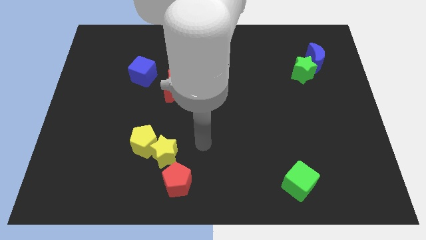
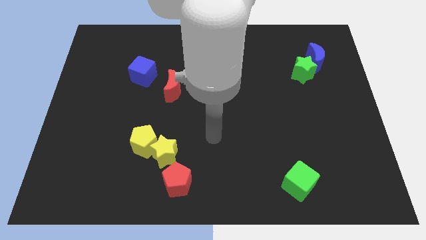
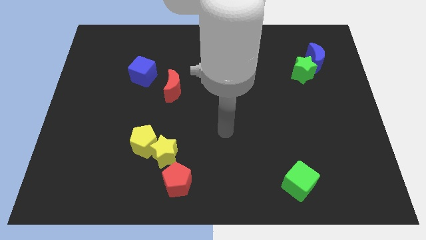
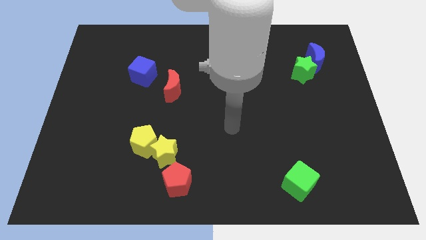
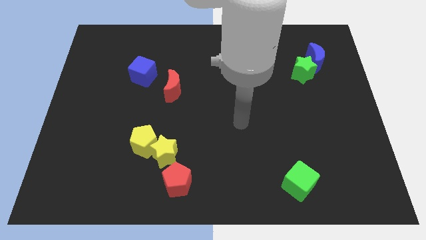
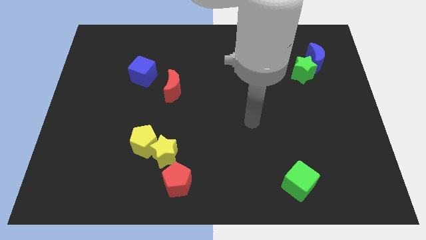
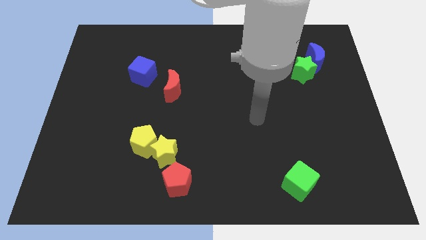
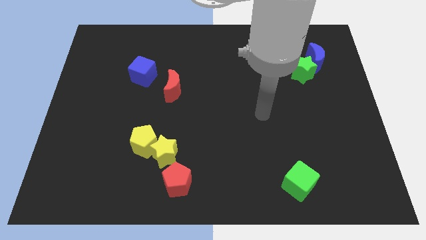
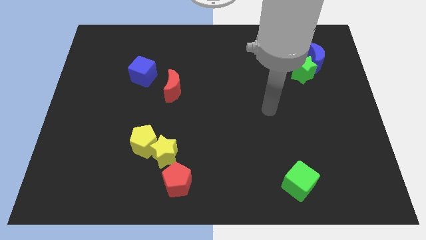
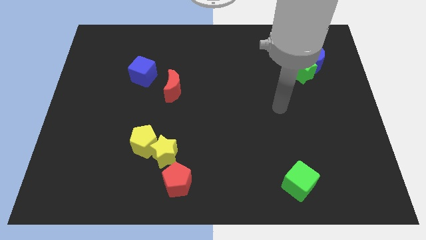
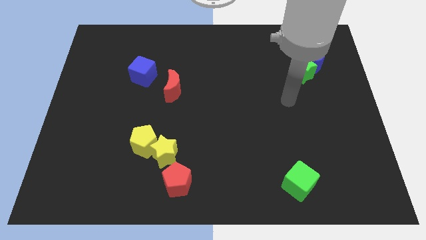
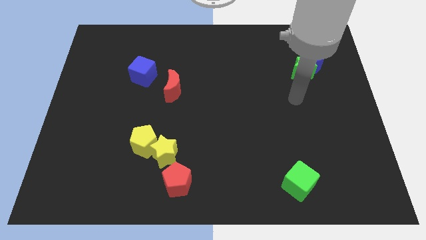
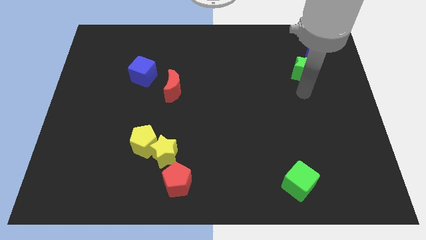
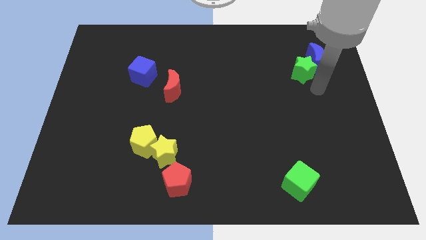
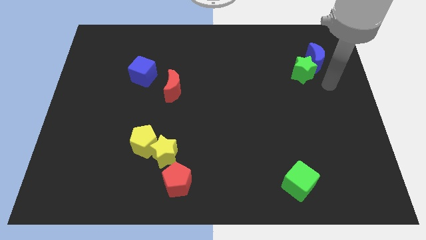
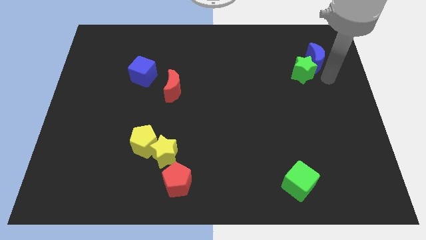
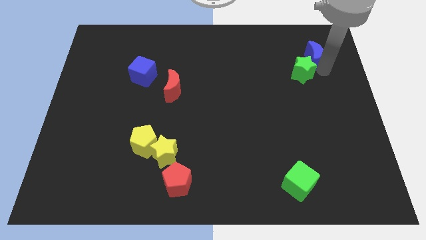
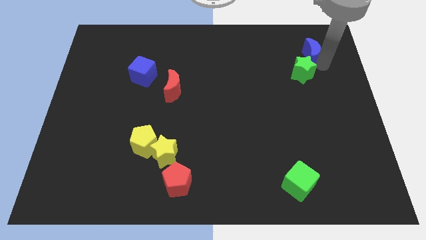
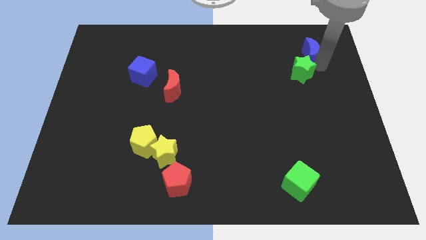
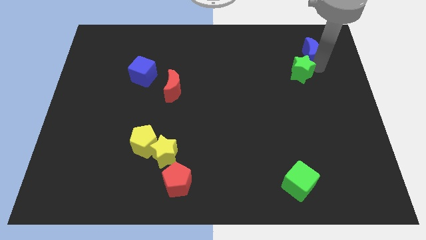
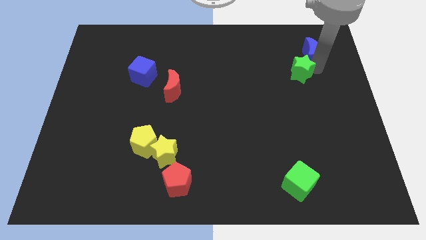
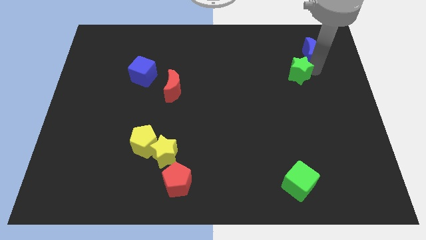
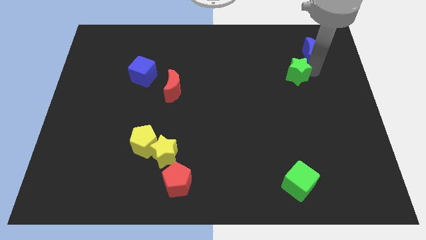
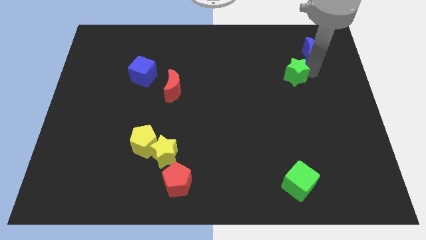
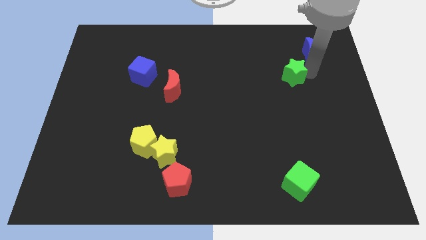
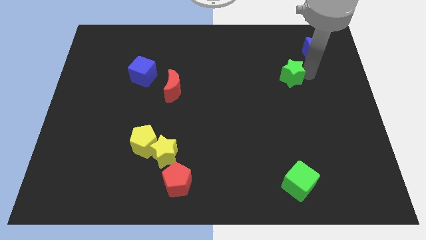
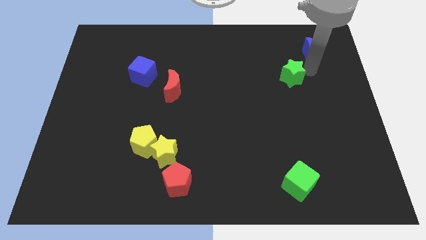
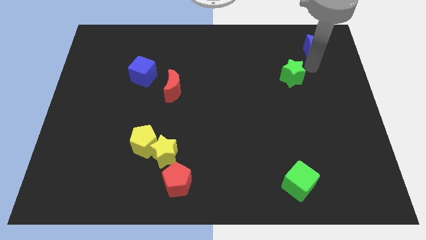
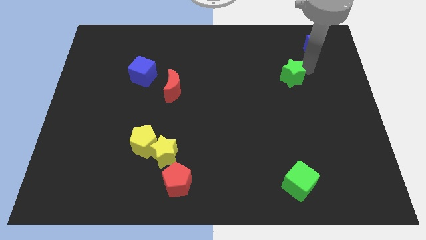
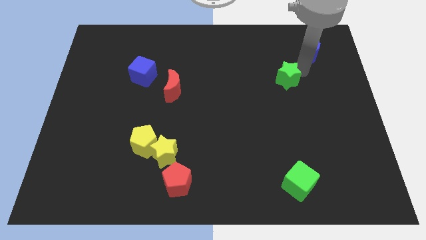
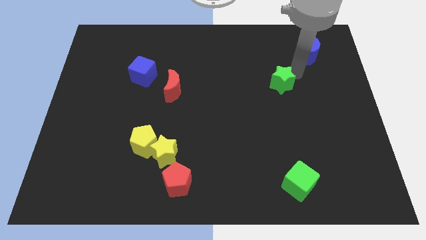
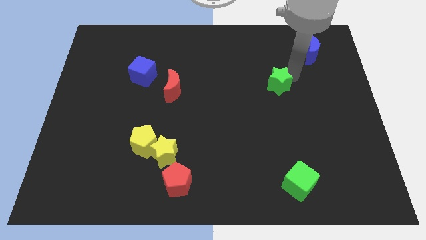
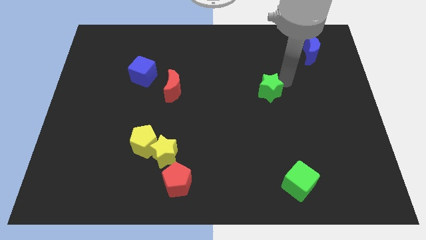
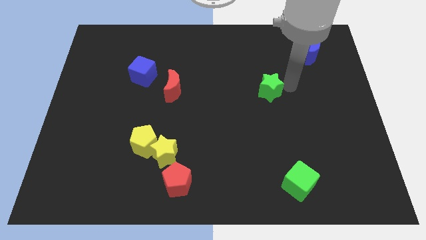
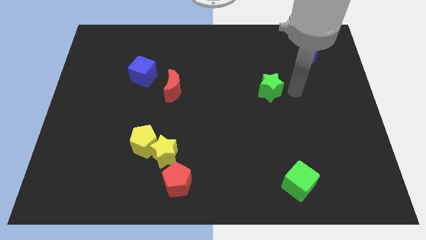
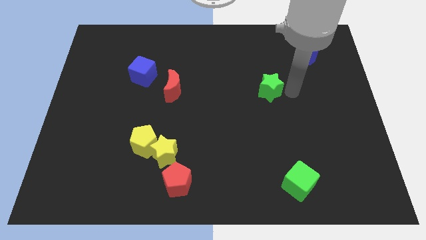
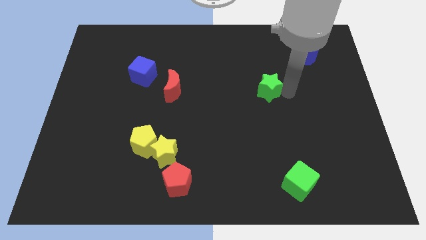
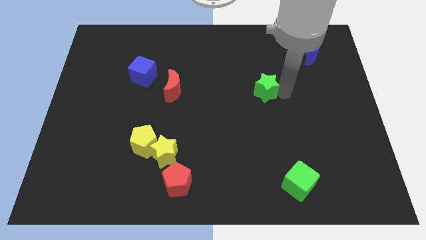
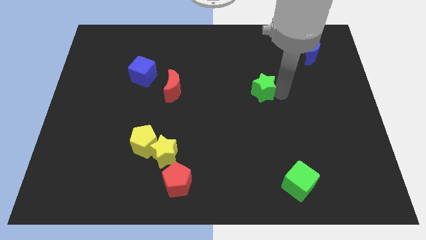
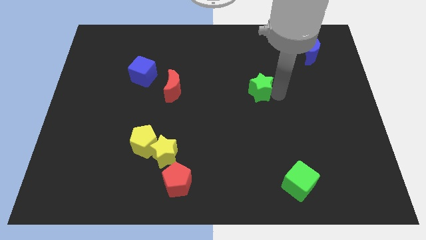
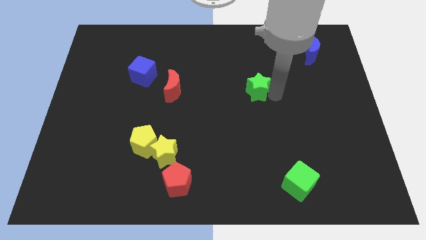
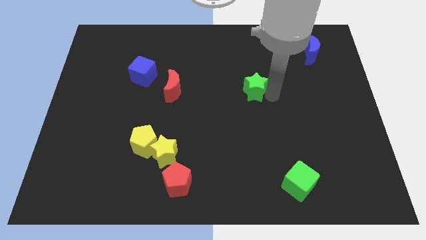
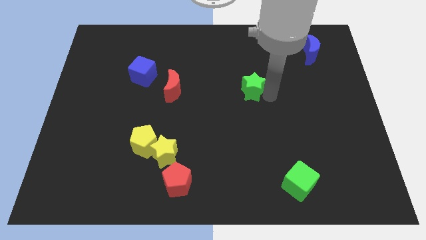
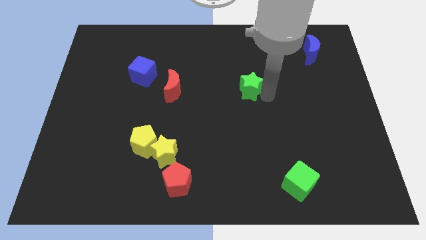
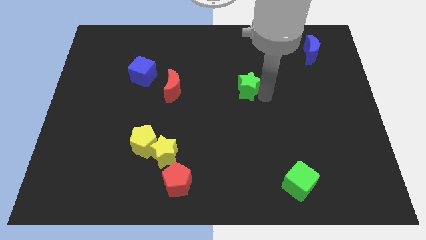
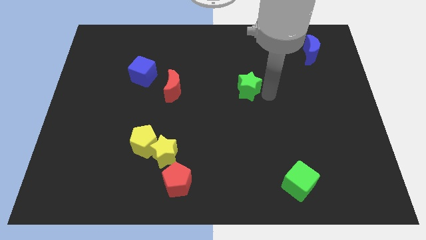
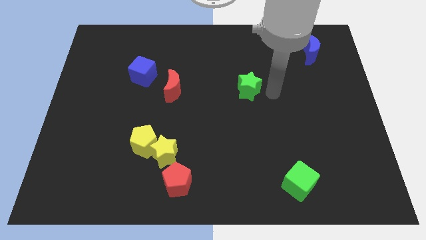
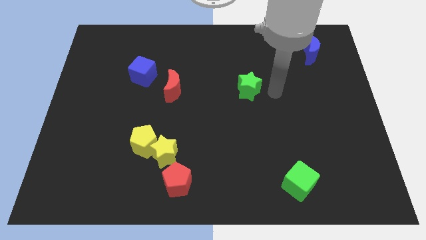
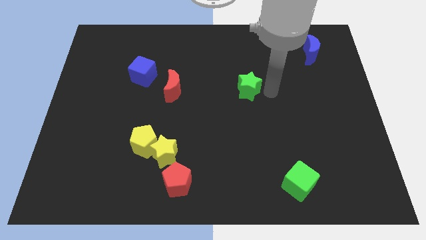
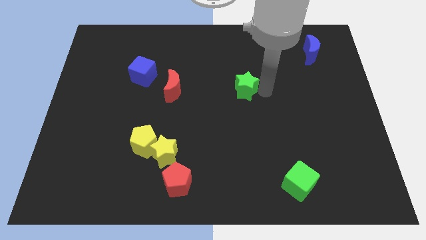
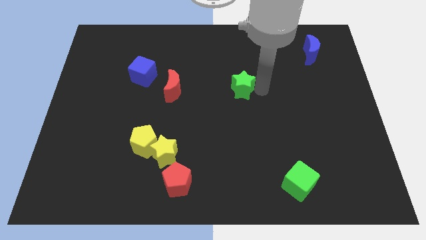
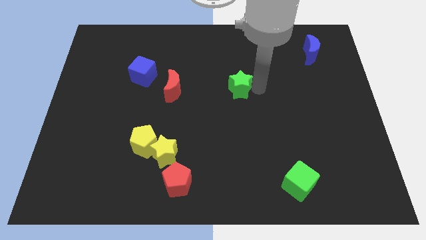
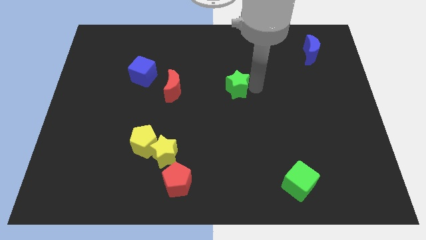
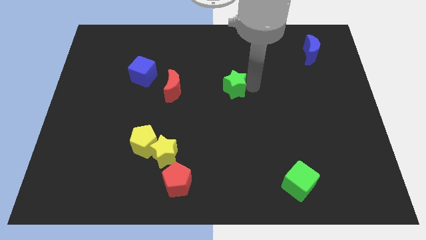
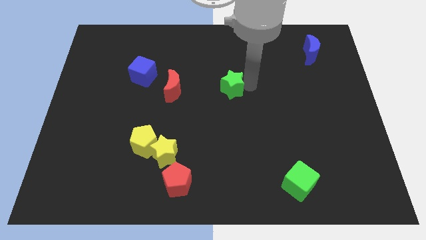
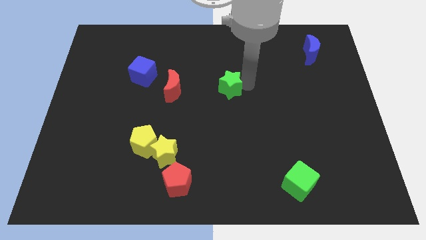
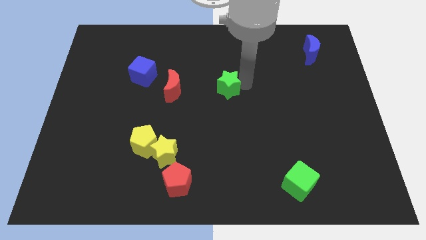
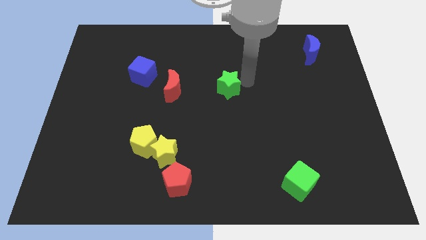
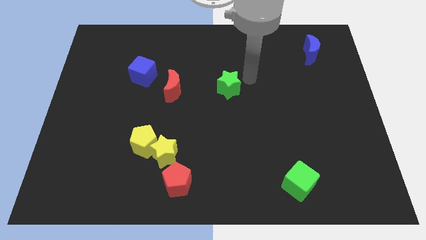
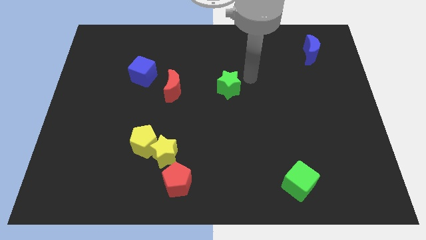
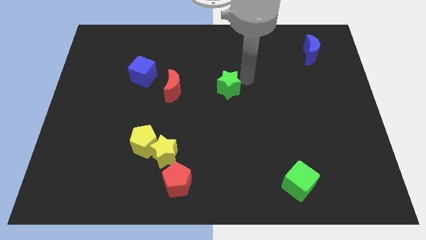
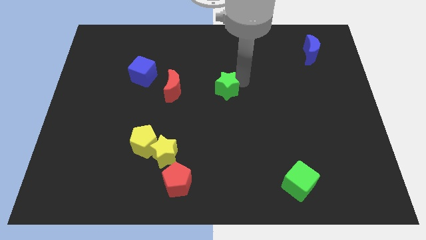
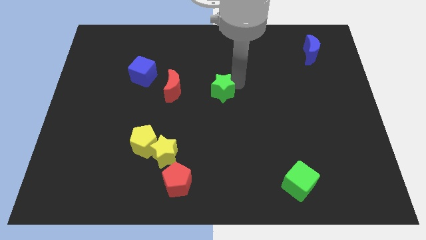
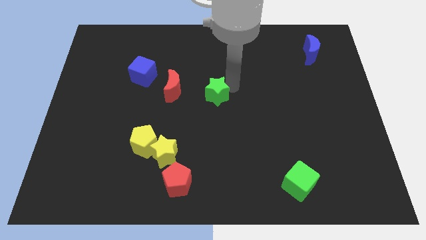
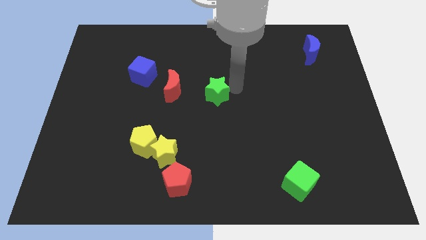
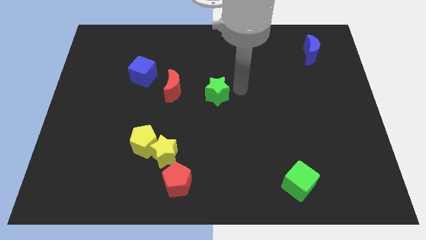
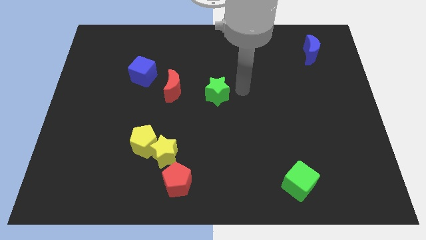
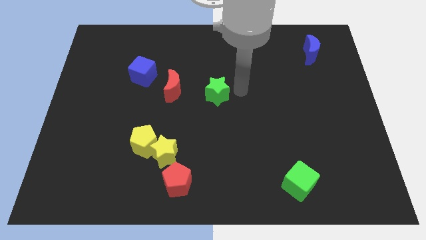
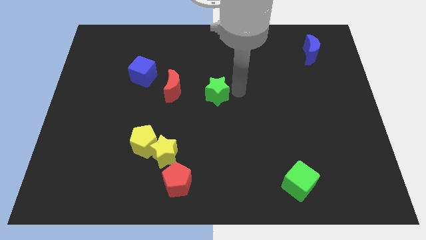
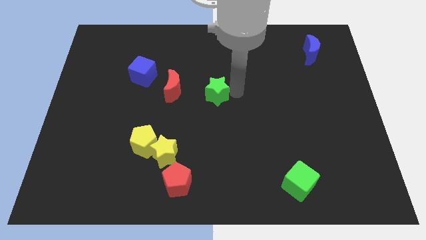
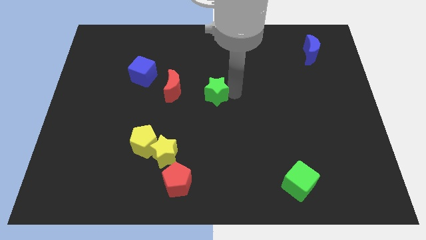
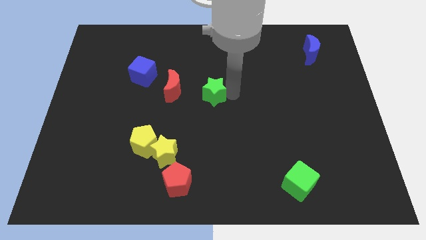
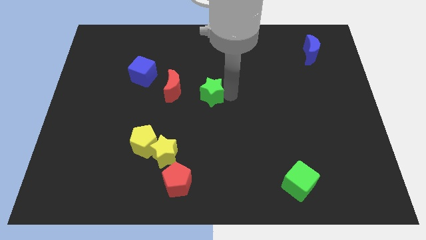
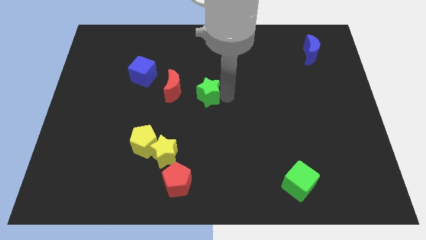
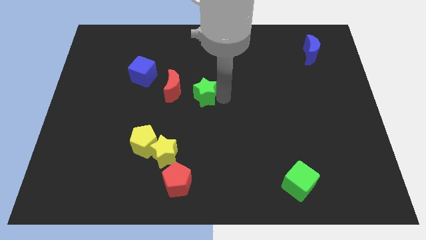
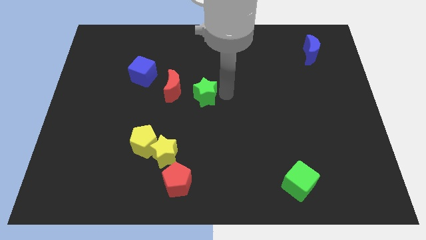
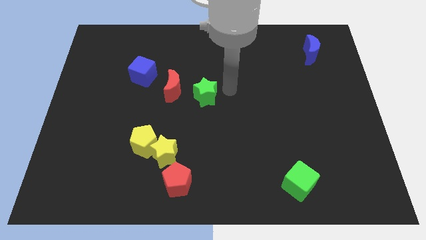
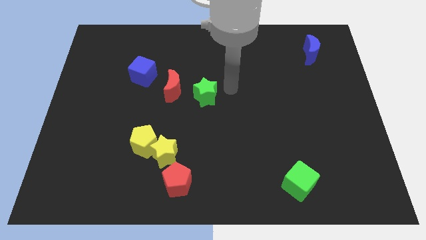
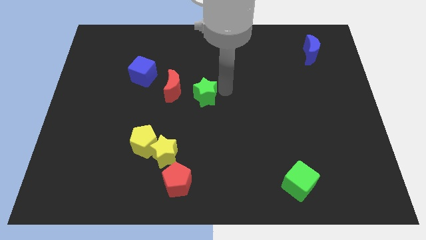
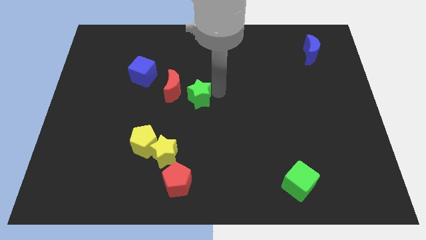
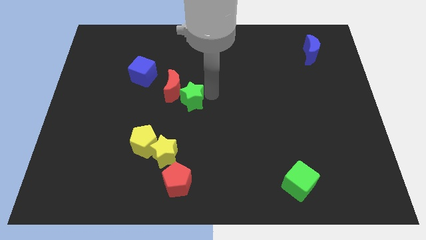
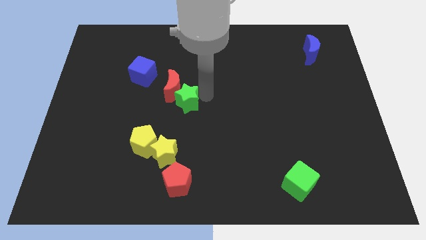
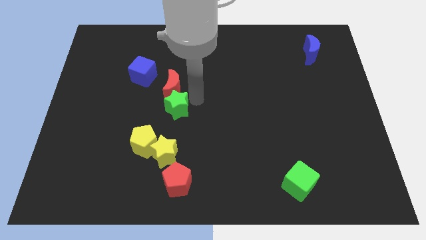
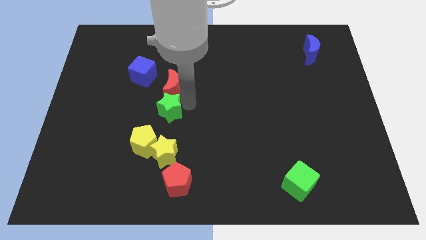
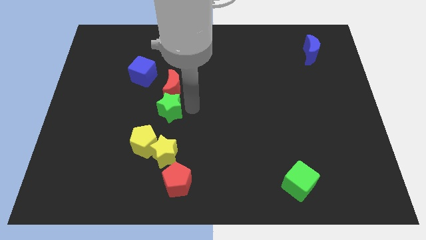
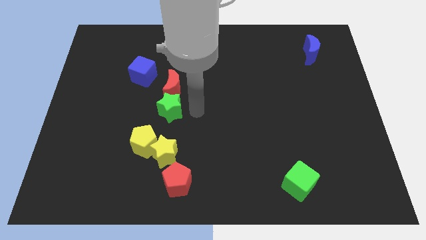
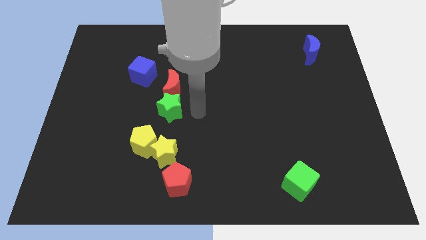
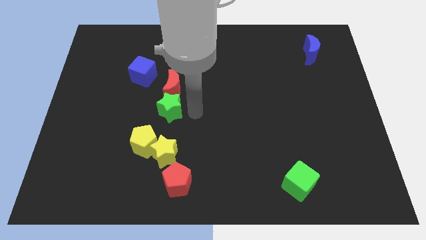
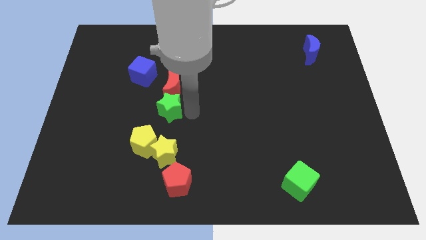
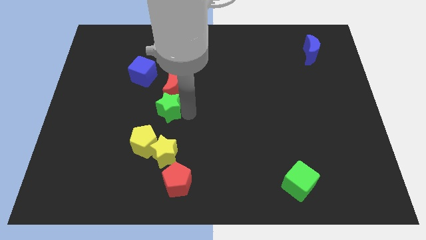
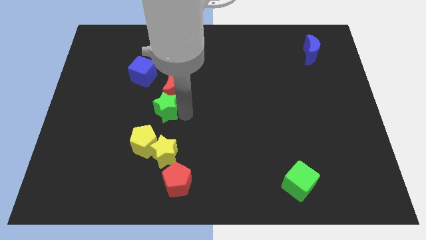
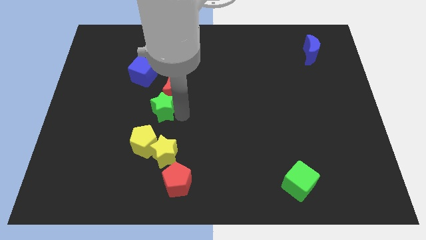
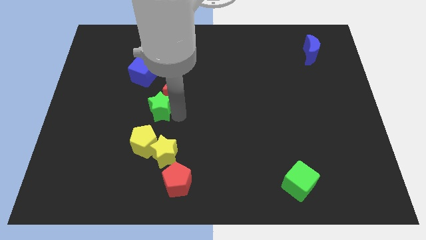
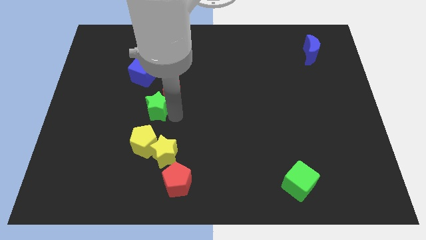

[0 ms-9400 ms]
put the green star below the blue cube
